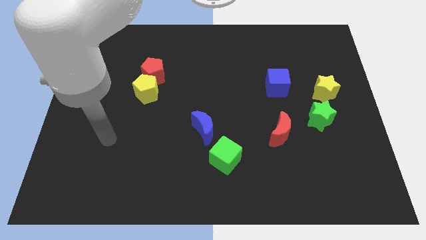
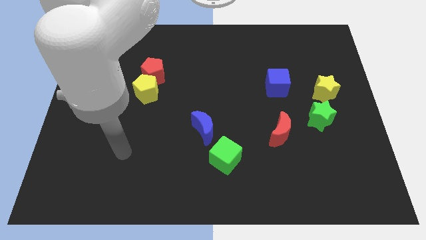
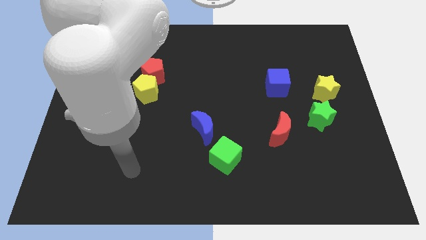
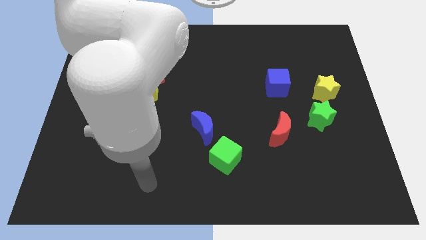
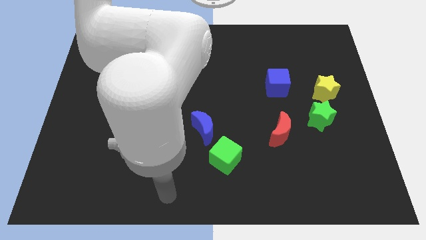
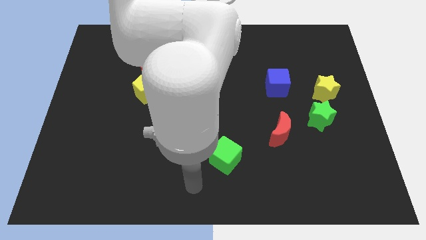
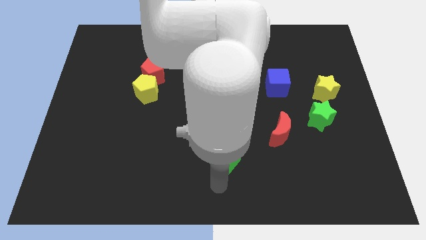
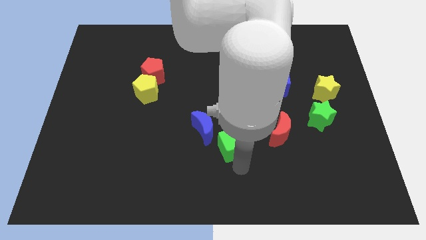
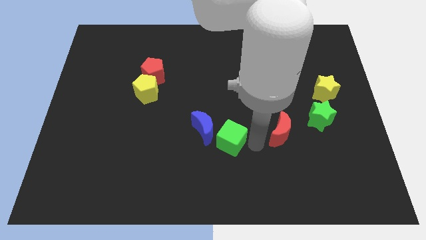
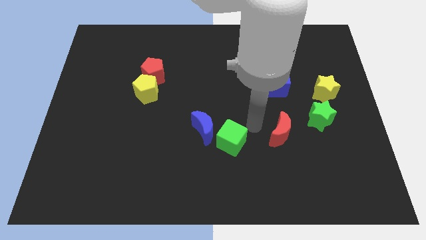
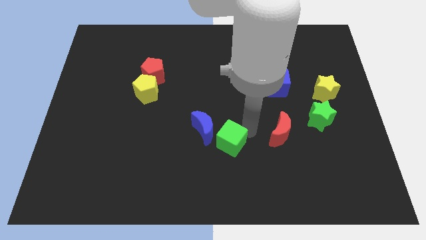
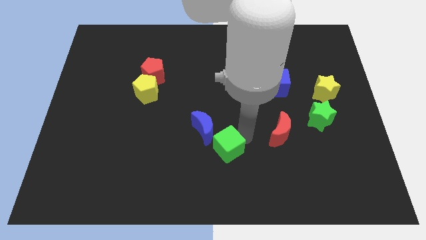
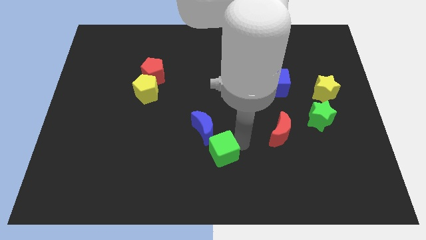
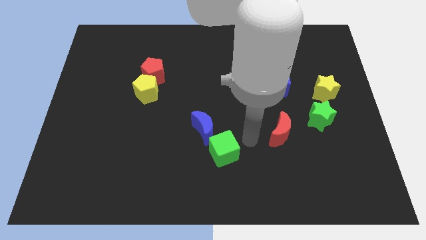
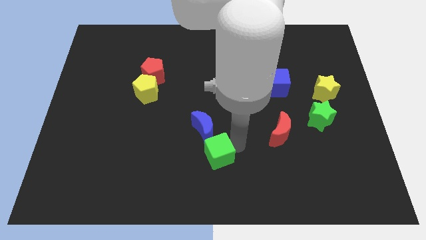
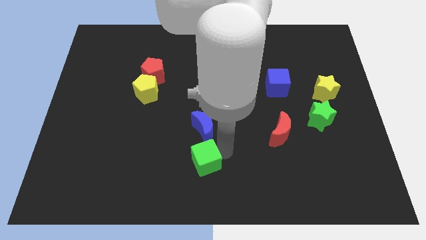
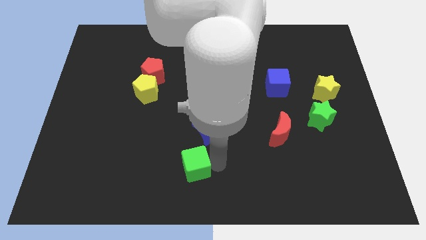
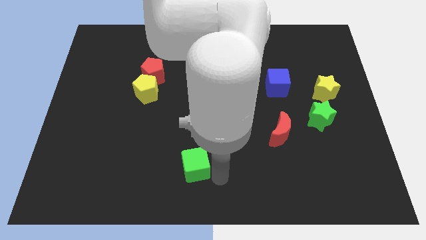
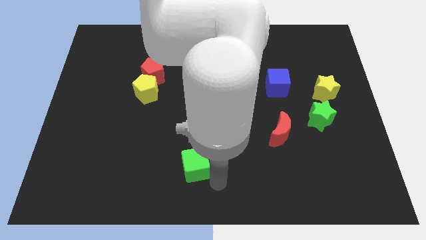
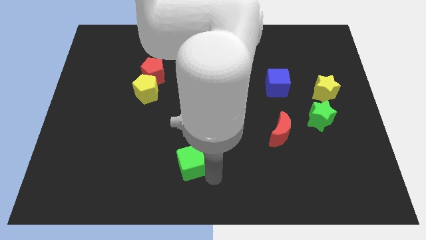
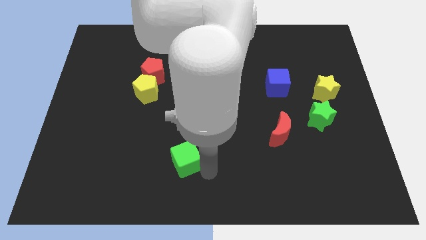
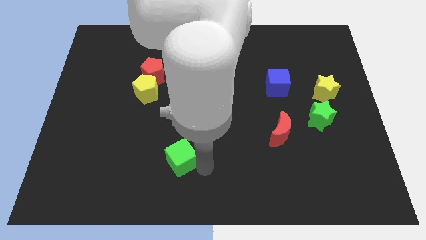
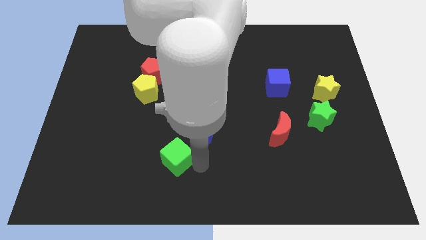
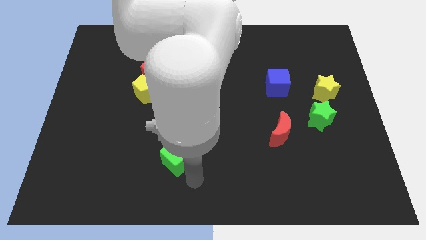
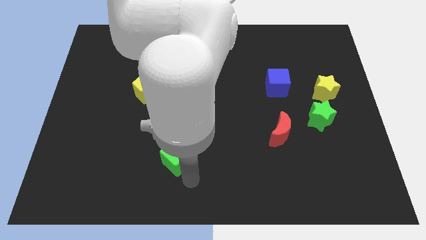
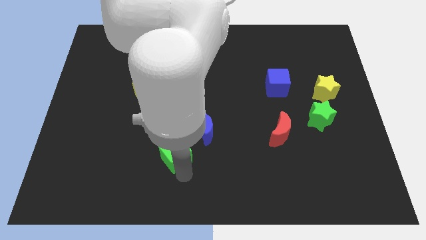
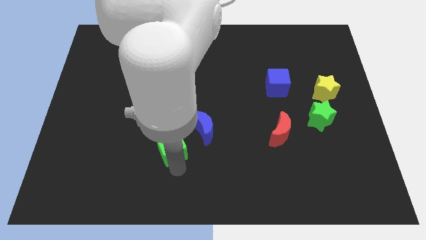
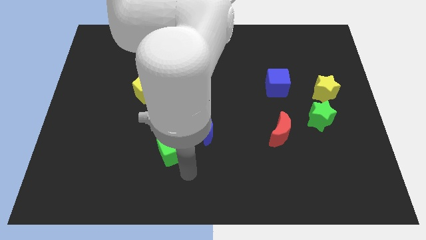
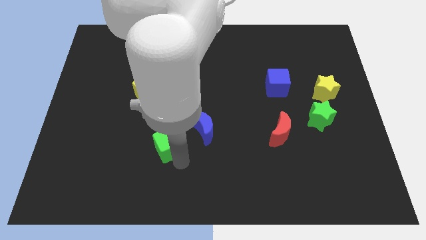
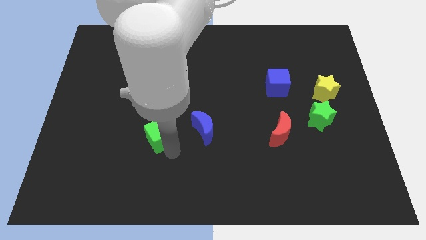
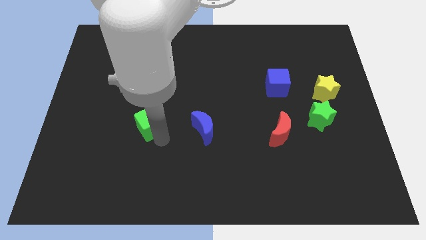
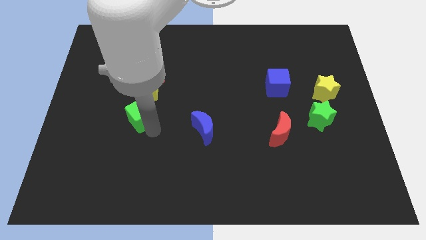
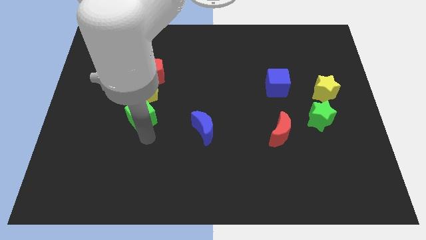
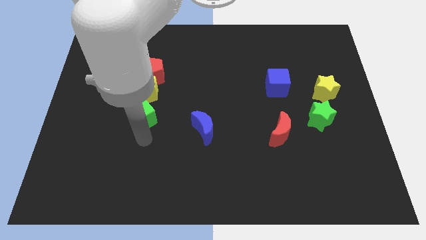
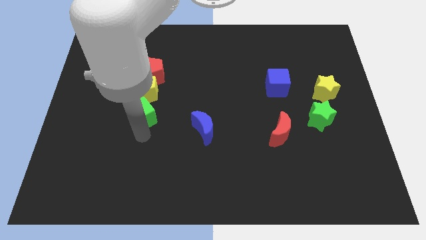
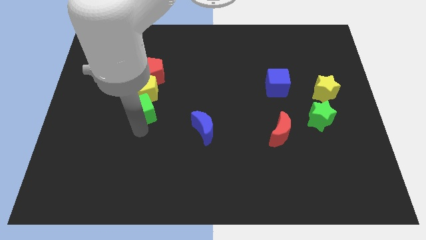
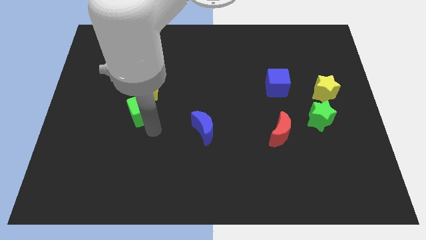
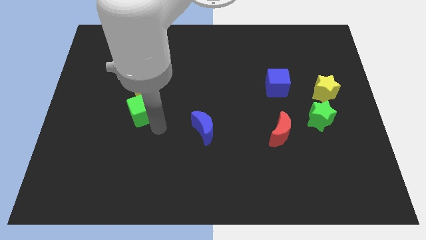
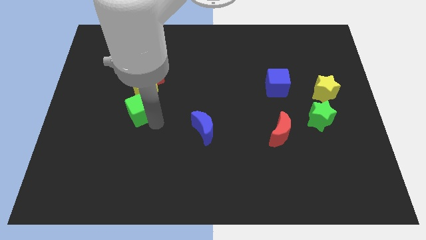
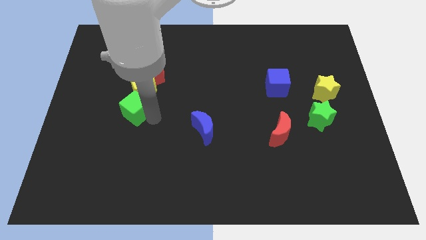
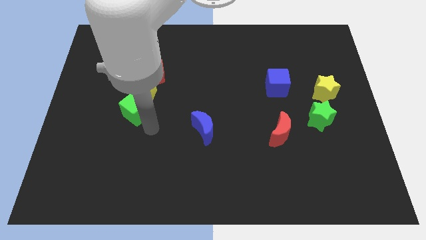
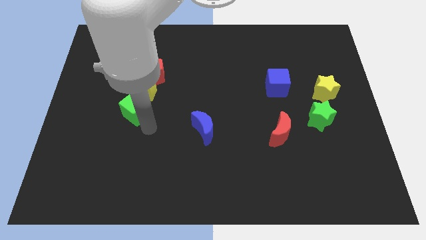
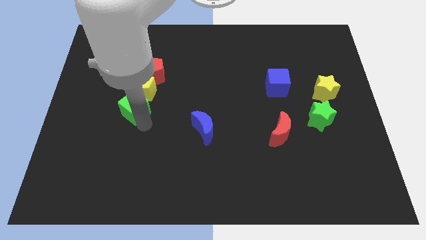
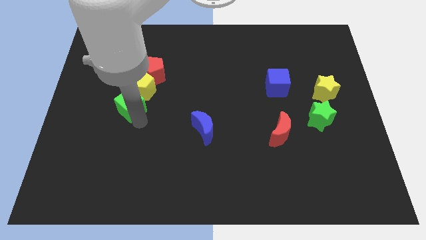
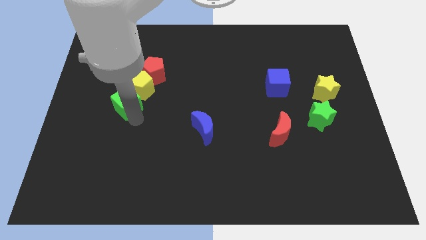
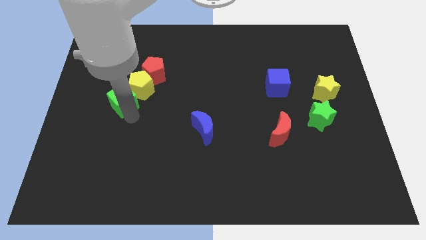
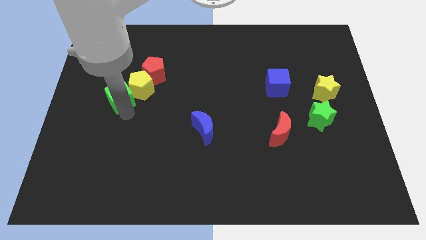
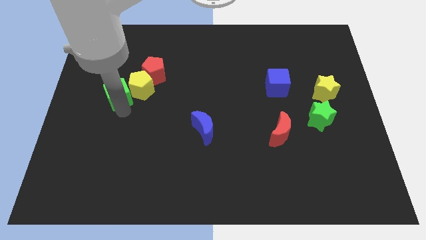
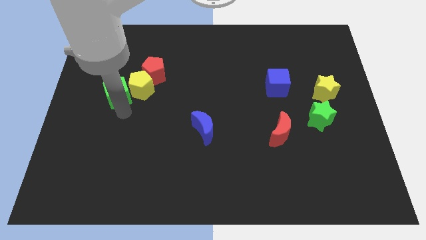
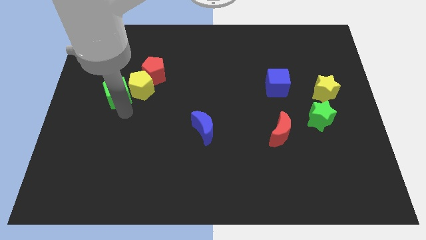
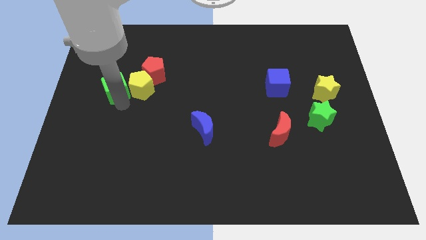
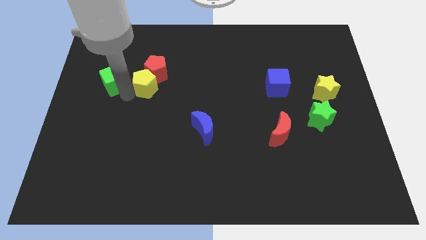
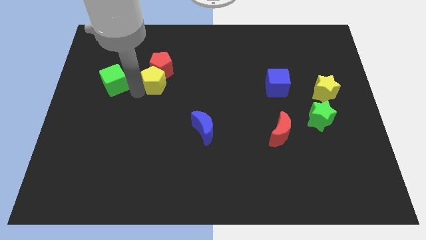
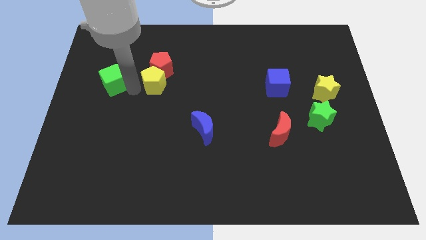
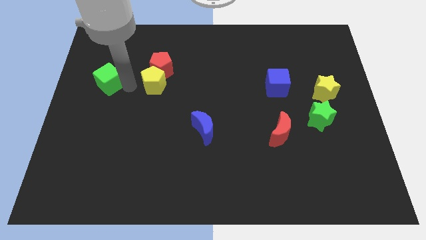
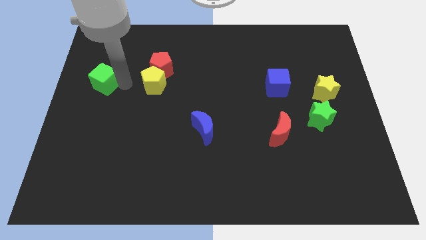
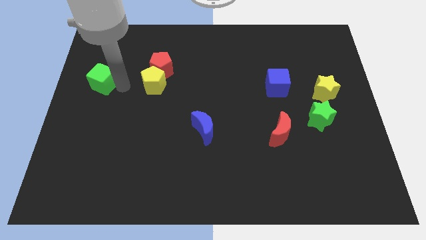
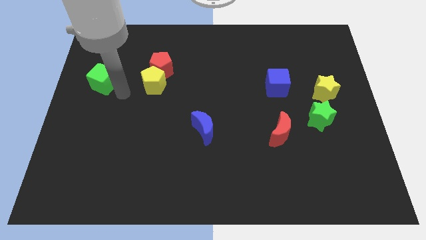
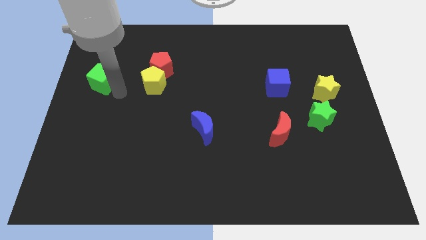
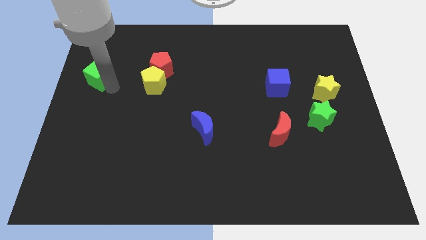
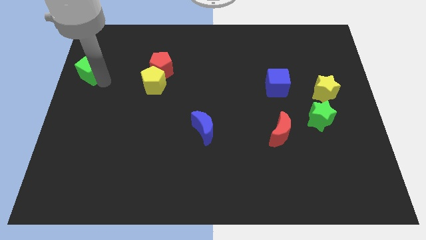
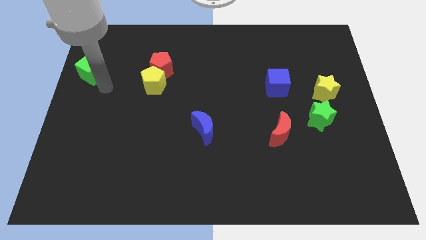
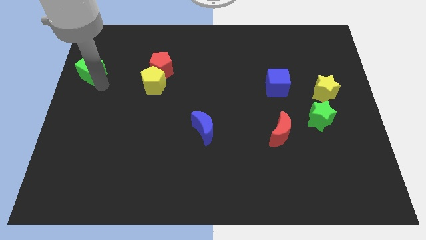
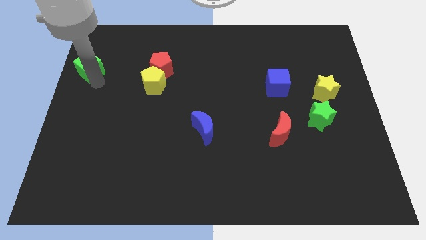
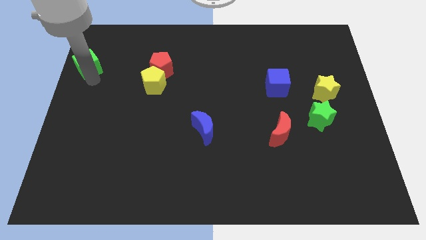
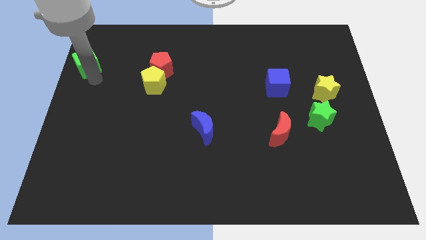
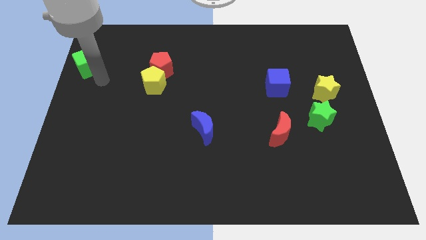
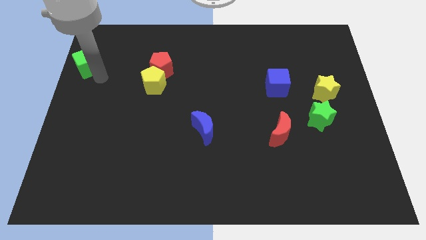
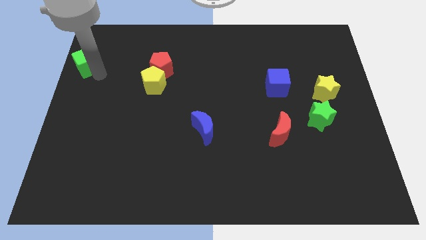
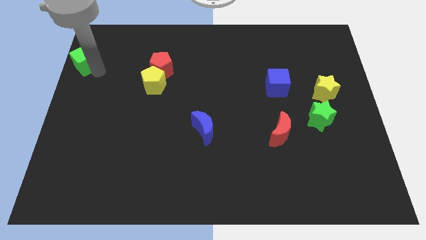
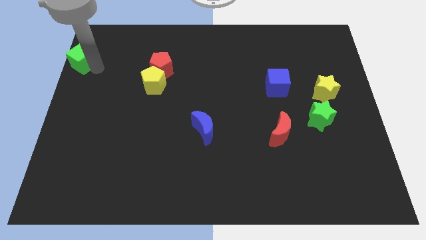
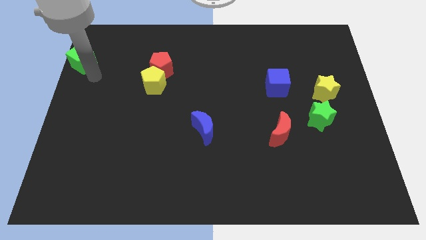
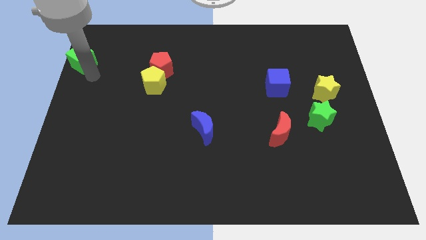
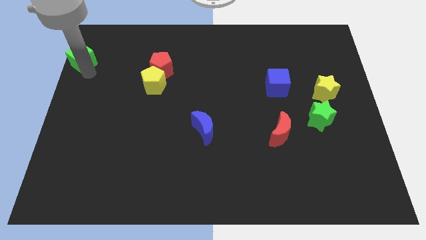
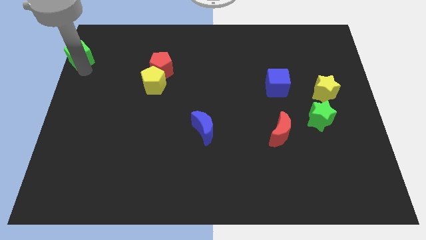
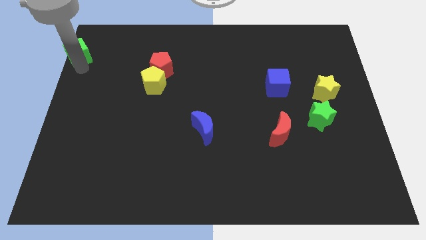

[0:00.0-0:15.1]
slide the green cube to the top left
